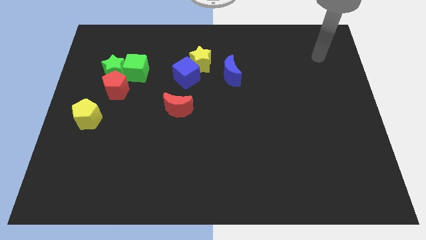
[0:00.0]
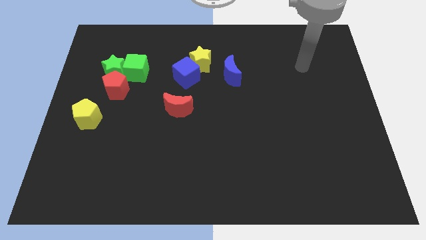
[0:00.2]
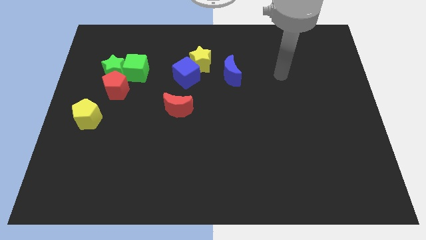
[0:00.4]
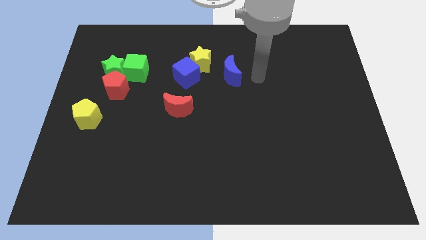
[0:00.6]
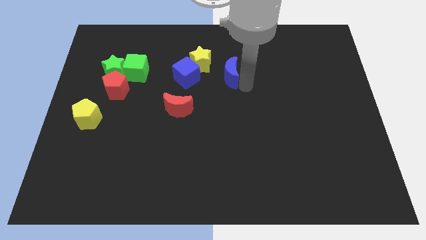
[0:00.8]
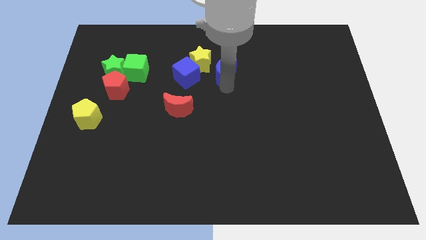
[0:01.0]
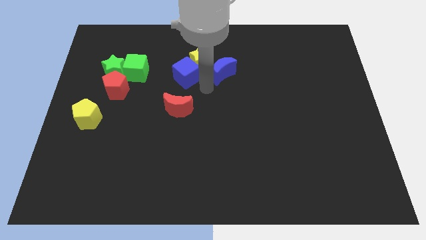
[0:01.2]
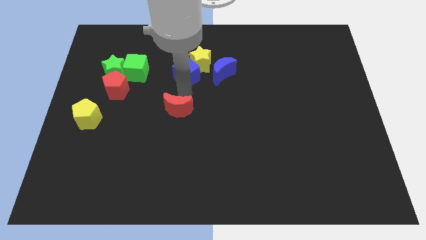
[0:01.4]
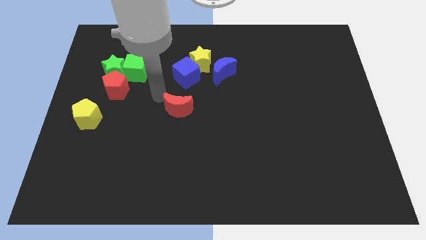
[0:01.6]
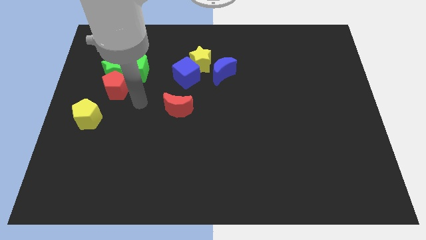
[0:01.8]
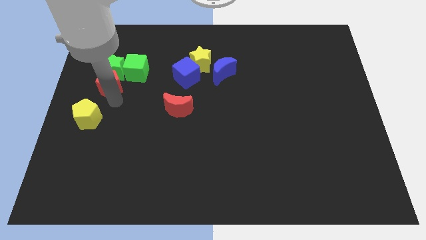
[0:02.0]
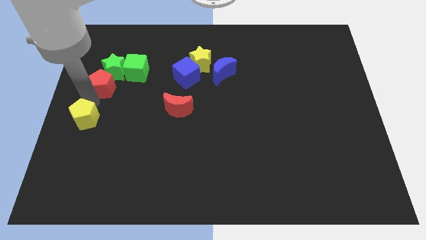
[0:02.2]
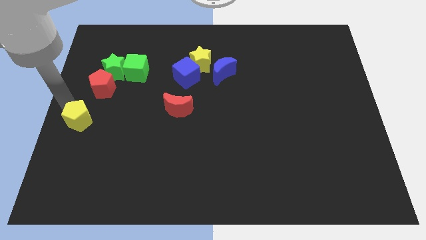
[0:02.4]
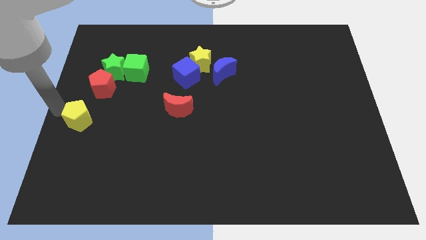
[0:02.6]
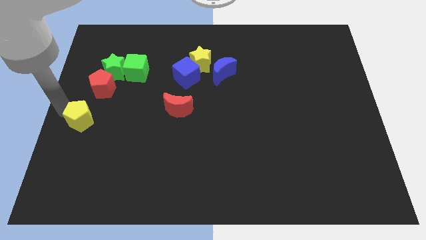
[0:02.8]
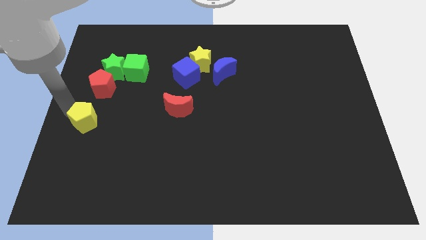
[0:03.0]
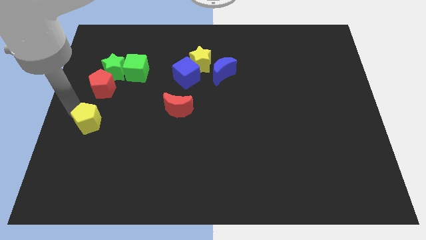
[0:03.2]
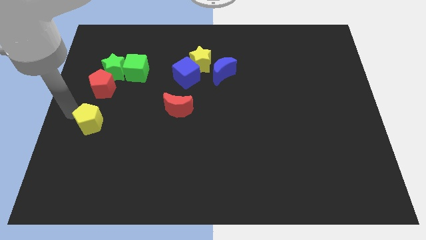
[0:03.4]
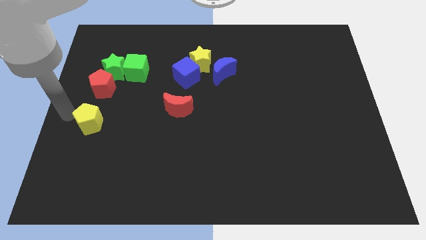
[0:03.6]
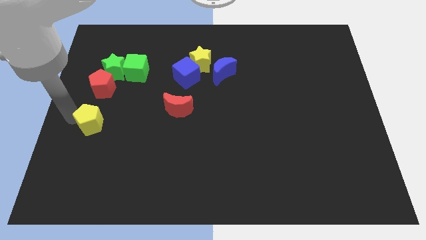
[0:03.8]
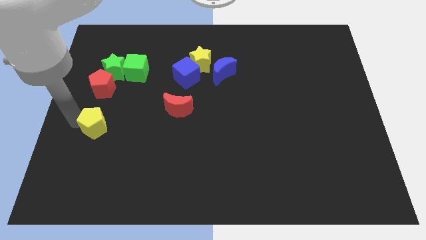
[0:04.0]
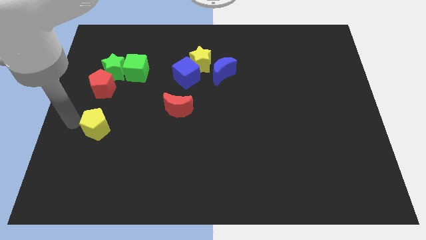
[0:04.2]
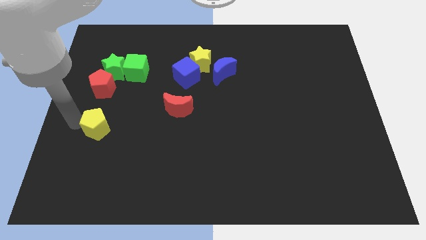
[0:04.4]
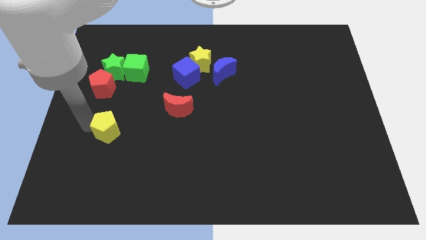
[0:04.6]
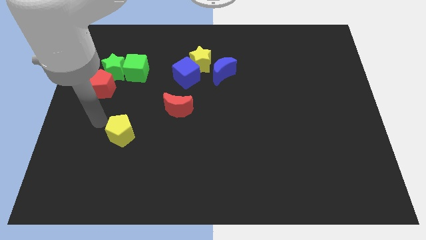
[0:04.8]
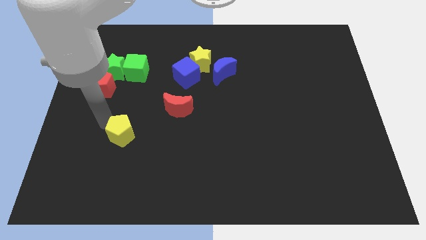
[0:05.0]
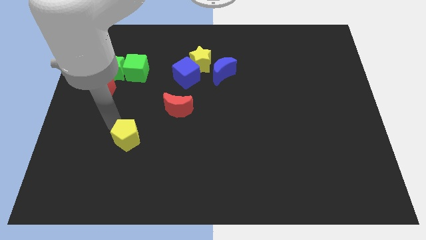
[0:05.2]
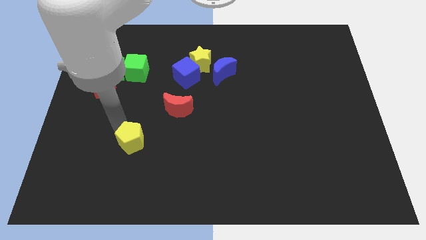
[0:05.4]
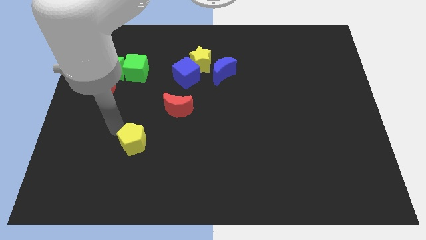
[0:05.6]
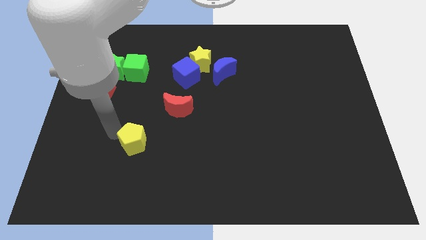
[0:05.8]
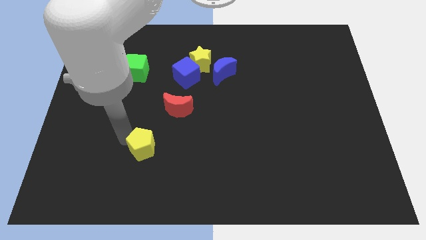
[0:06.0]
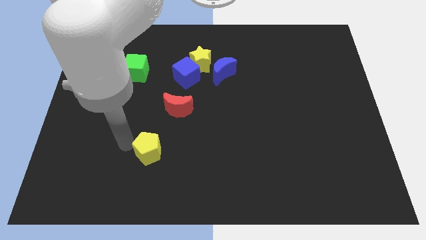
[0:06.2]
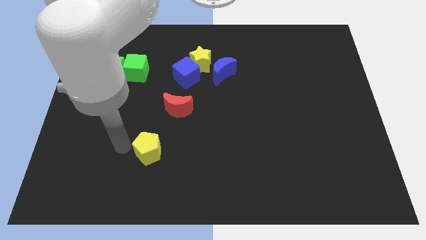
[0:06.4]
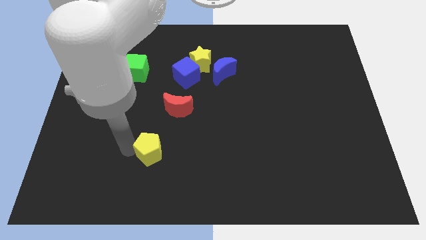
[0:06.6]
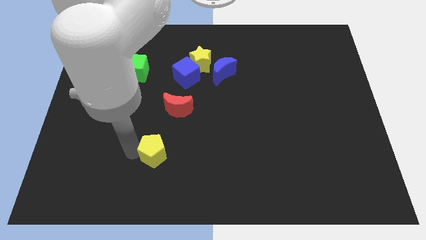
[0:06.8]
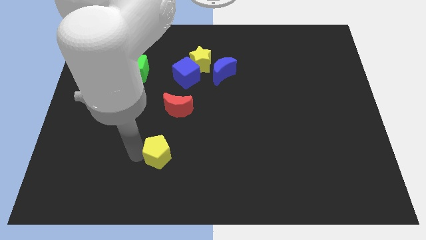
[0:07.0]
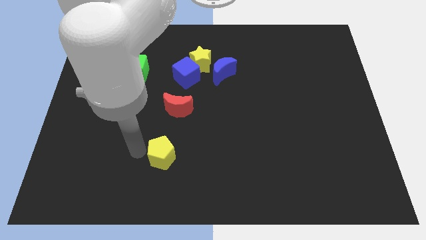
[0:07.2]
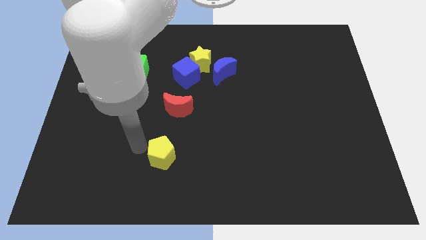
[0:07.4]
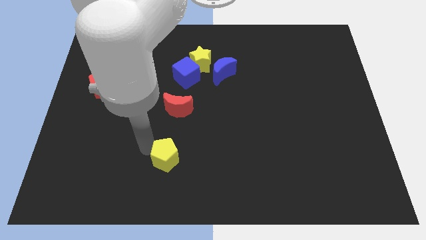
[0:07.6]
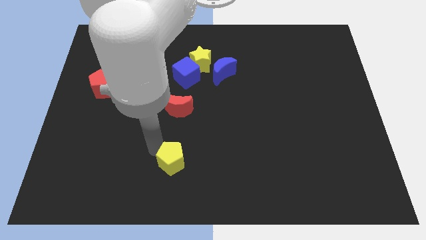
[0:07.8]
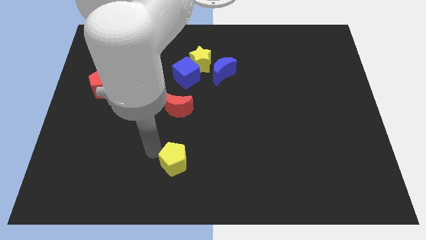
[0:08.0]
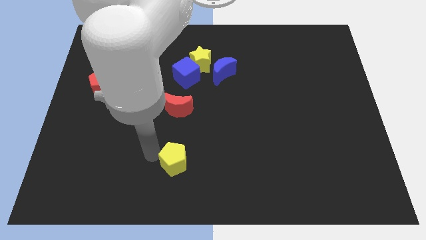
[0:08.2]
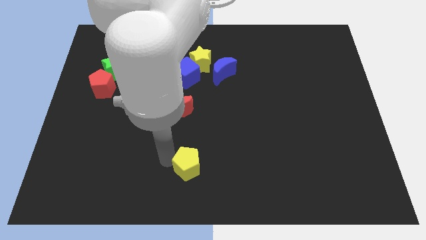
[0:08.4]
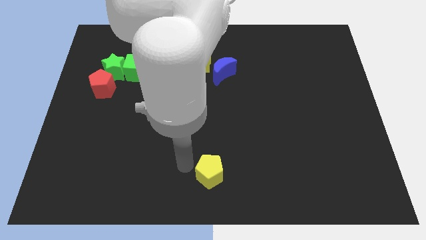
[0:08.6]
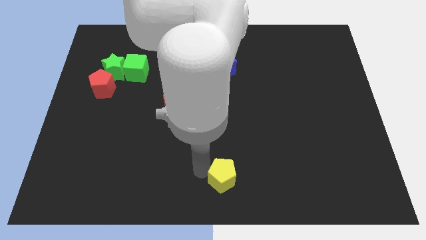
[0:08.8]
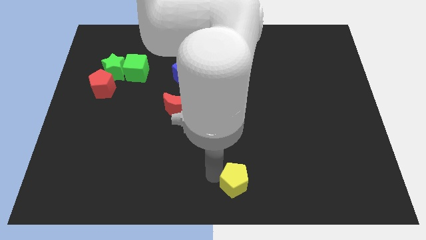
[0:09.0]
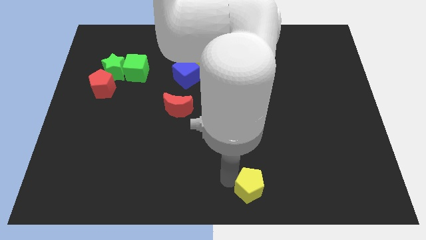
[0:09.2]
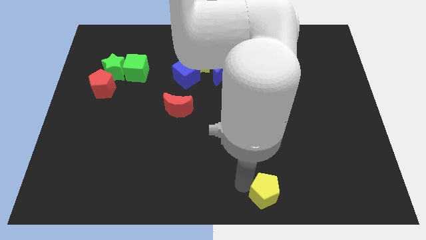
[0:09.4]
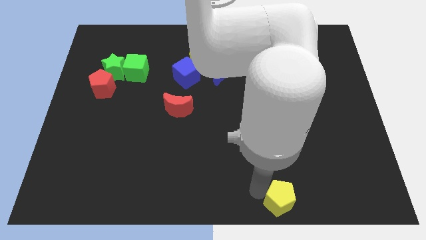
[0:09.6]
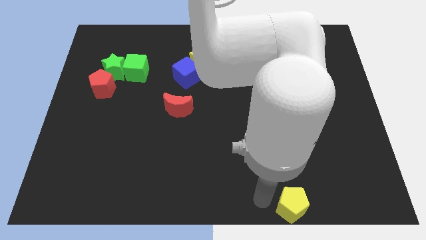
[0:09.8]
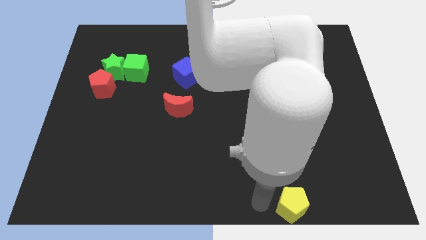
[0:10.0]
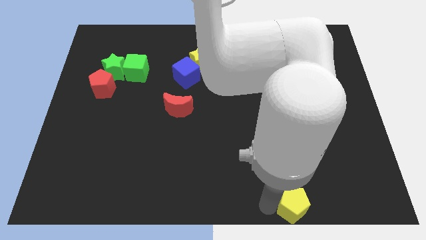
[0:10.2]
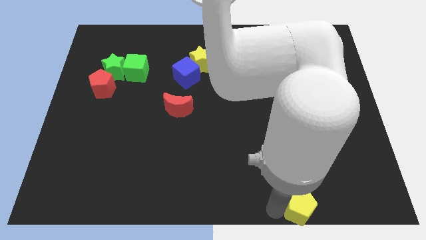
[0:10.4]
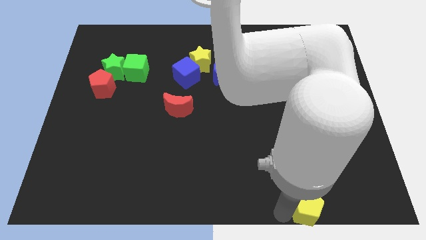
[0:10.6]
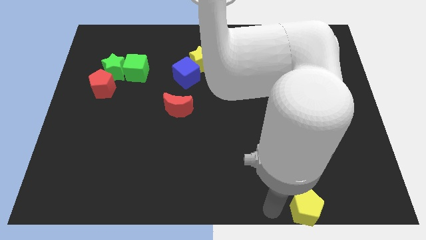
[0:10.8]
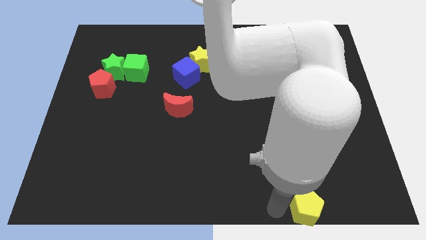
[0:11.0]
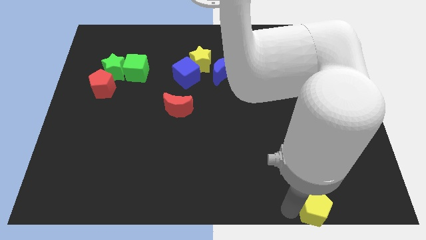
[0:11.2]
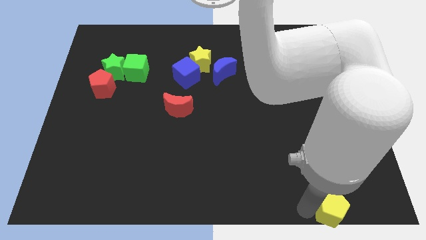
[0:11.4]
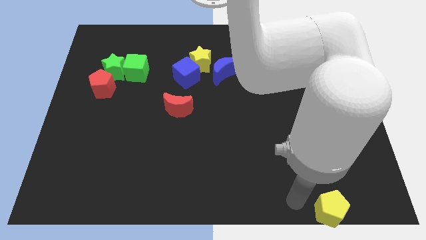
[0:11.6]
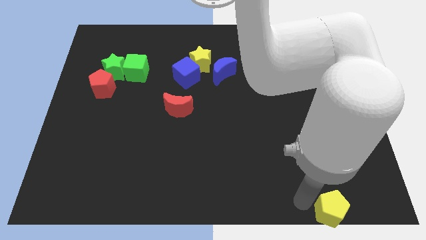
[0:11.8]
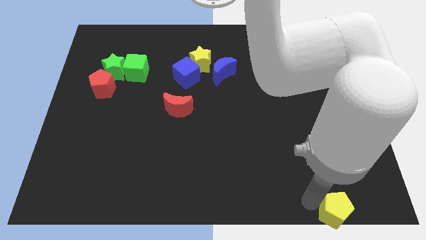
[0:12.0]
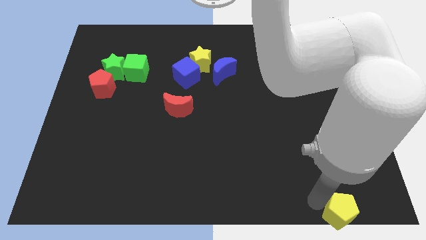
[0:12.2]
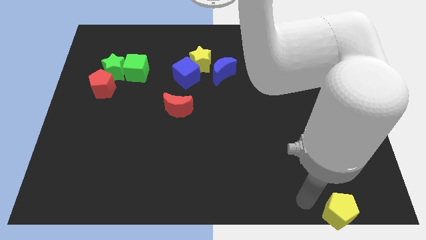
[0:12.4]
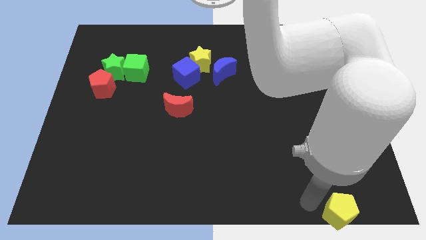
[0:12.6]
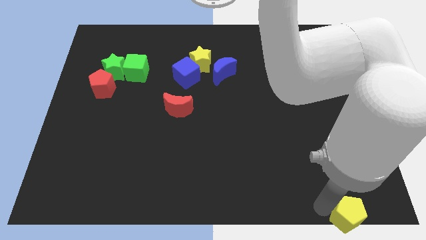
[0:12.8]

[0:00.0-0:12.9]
push the yellow pentagon to the bottom right corner
